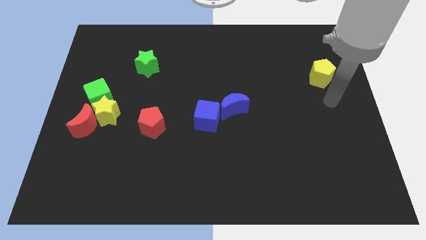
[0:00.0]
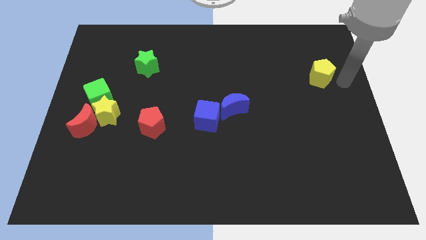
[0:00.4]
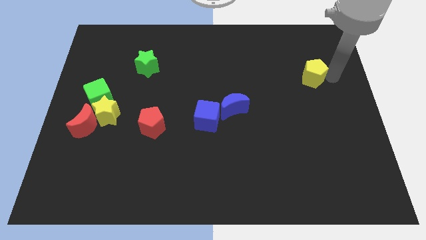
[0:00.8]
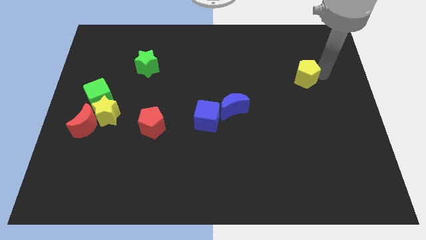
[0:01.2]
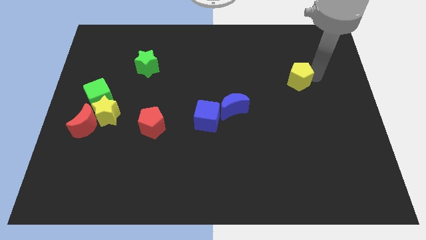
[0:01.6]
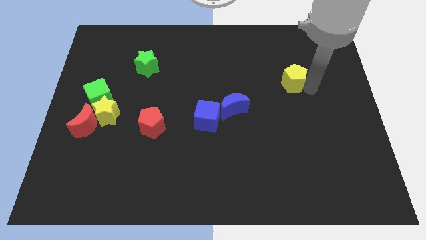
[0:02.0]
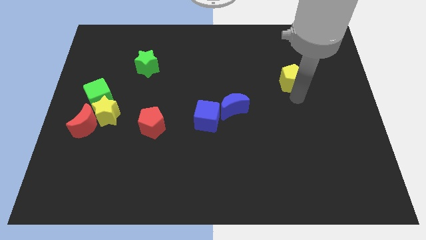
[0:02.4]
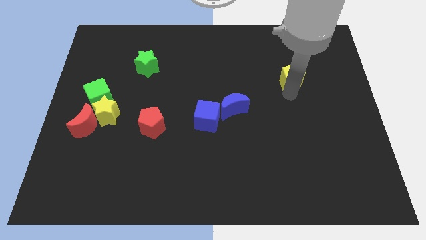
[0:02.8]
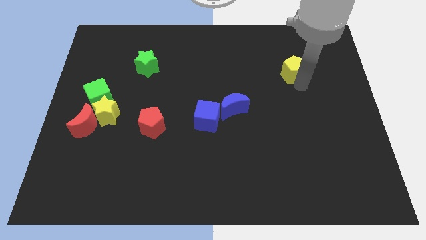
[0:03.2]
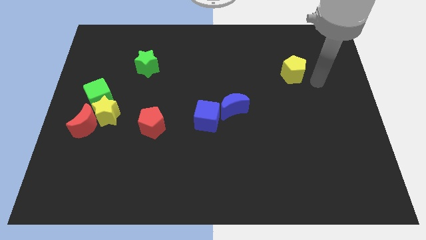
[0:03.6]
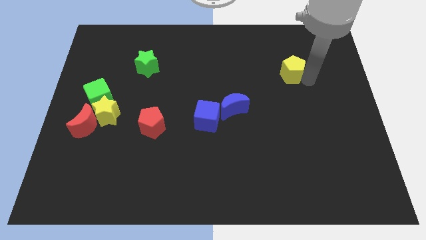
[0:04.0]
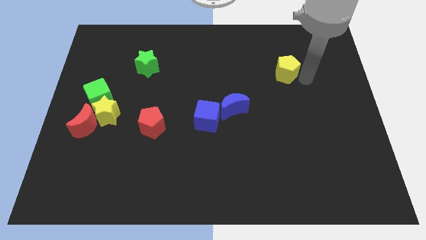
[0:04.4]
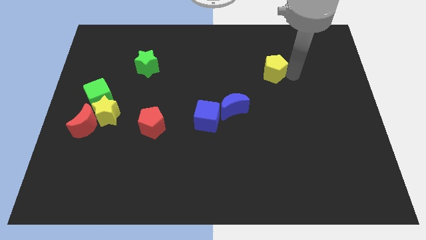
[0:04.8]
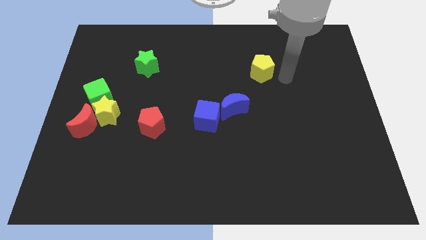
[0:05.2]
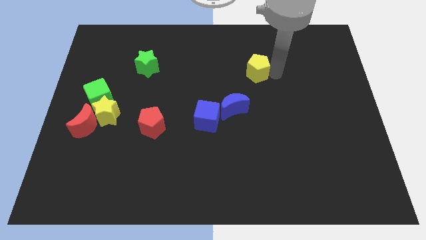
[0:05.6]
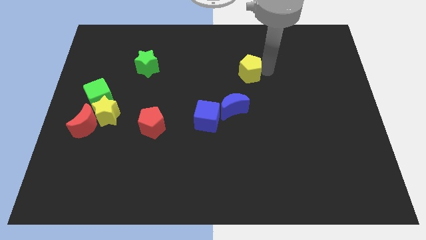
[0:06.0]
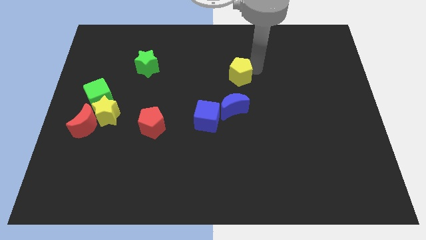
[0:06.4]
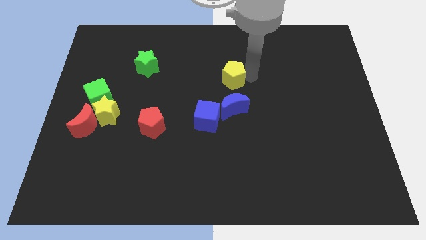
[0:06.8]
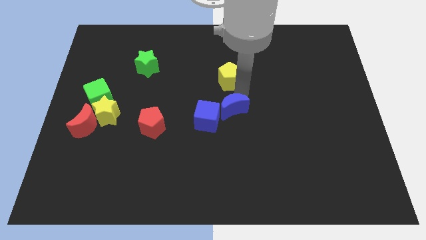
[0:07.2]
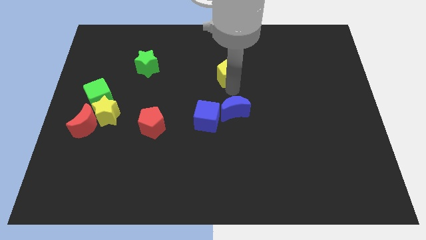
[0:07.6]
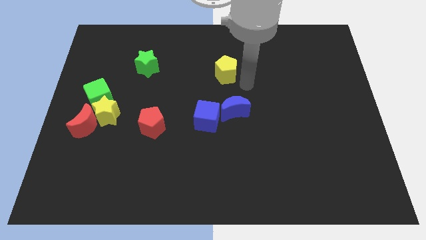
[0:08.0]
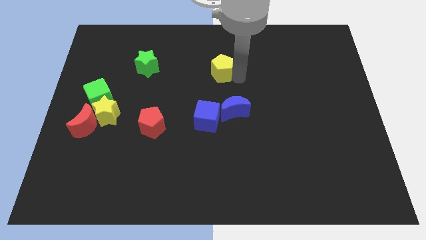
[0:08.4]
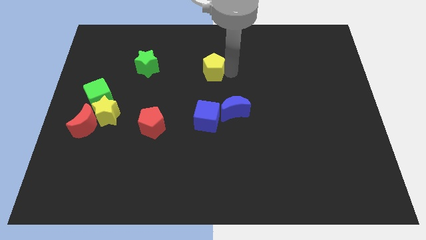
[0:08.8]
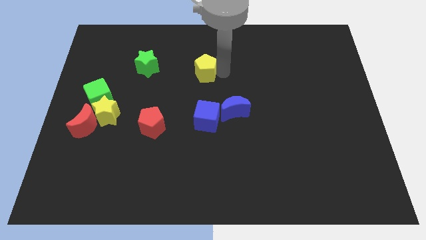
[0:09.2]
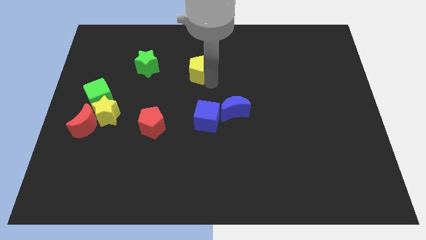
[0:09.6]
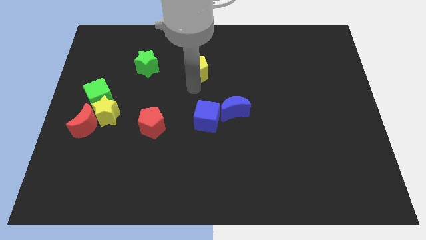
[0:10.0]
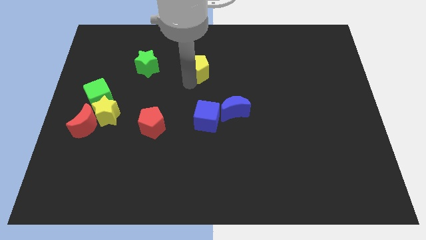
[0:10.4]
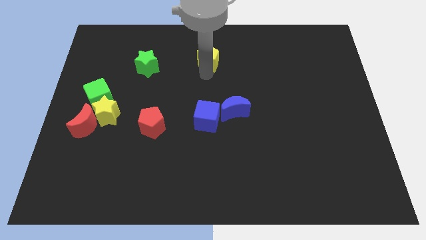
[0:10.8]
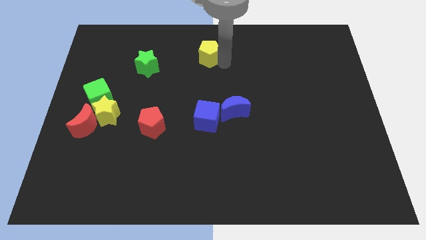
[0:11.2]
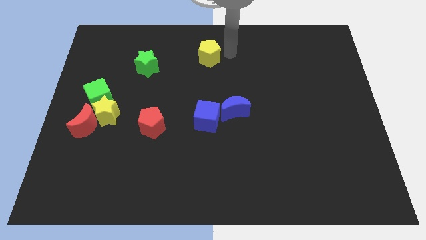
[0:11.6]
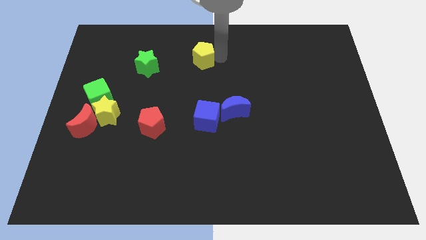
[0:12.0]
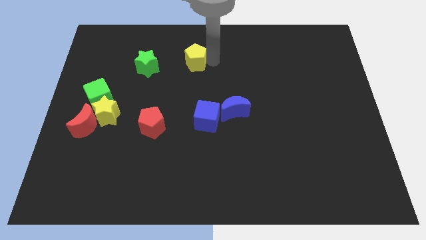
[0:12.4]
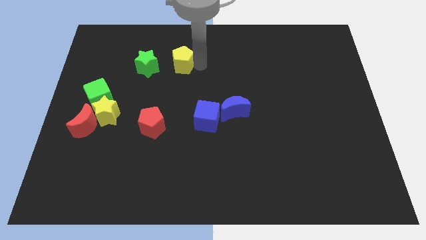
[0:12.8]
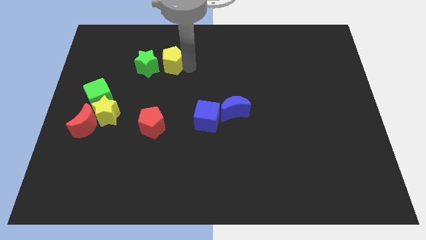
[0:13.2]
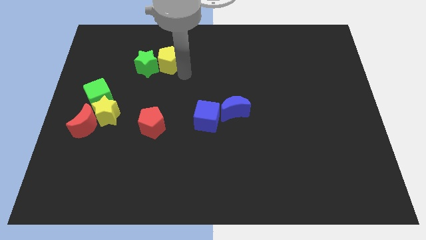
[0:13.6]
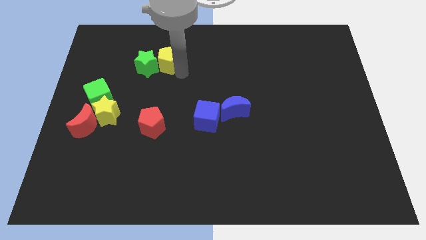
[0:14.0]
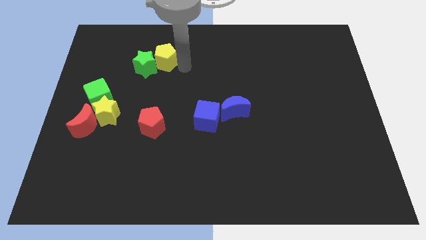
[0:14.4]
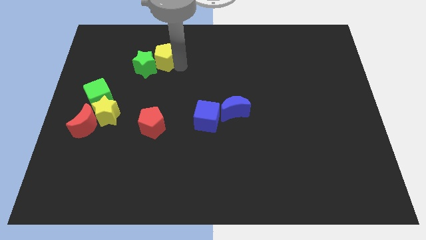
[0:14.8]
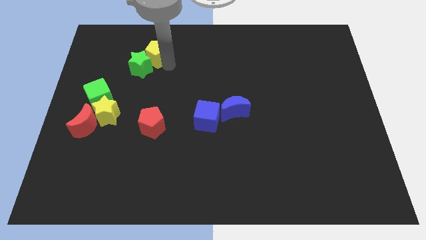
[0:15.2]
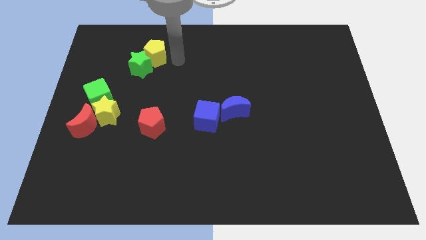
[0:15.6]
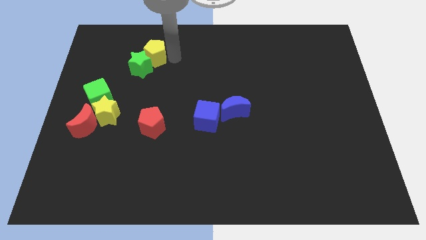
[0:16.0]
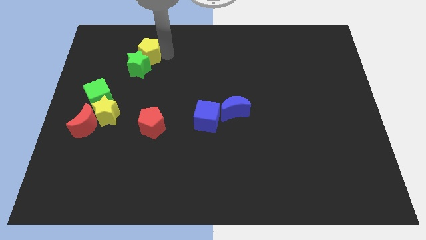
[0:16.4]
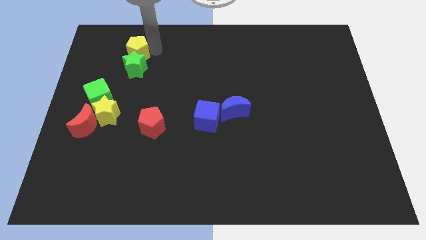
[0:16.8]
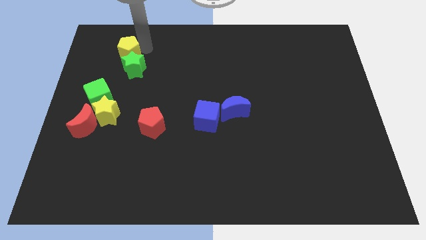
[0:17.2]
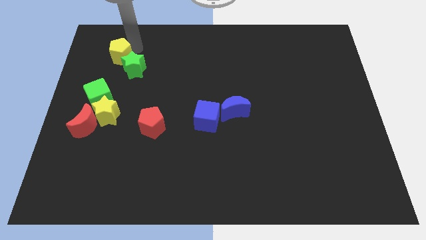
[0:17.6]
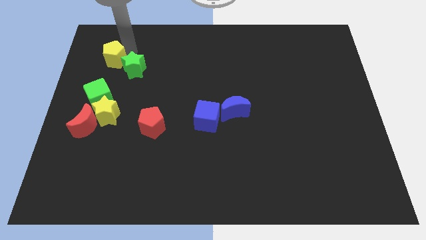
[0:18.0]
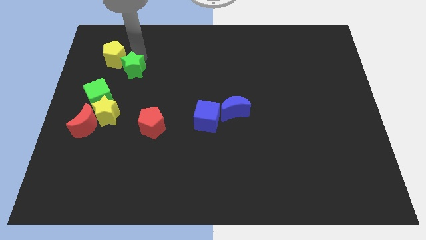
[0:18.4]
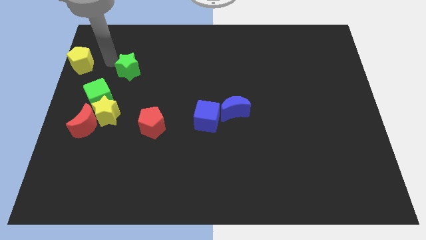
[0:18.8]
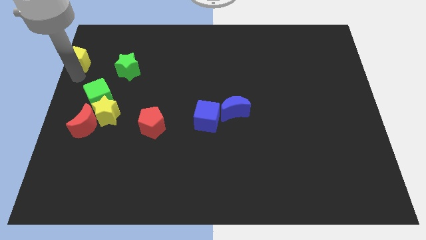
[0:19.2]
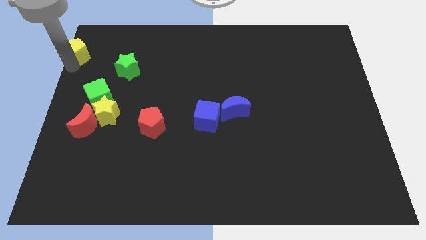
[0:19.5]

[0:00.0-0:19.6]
put the yellow pentagon to the upper left corner

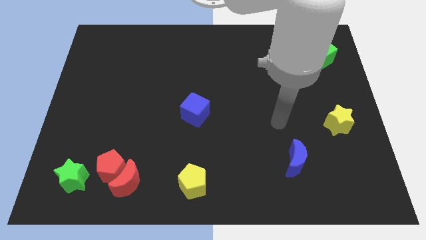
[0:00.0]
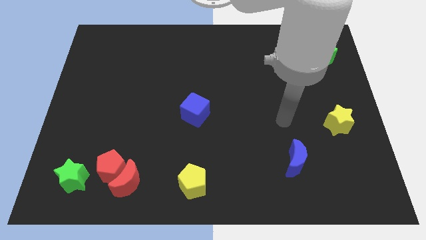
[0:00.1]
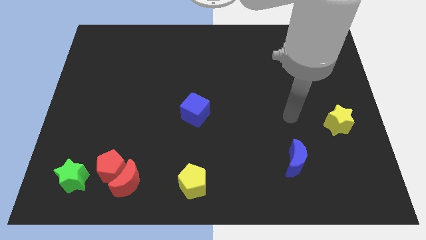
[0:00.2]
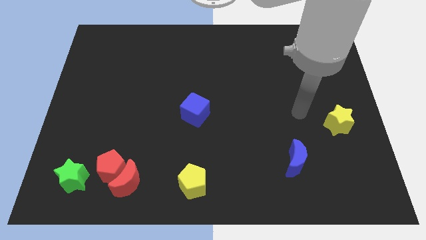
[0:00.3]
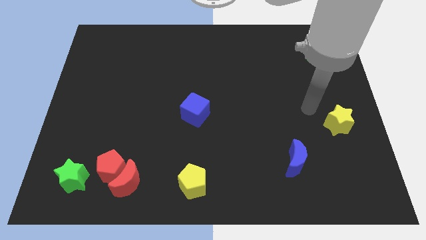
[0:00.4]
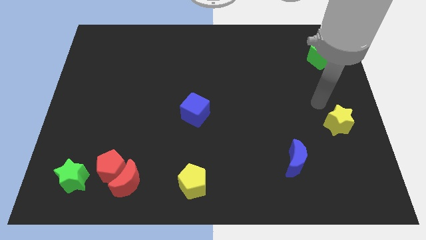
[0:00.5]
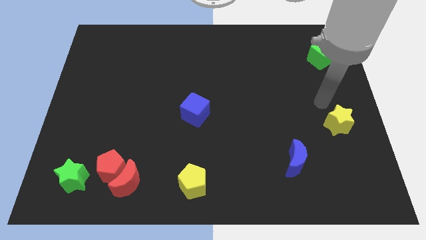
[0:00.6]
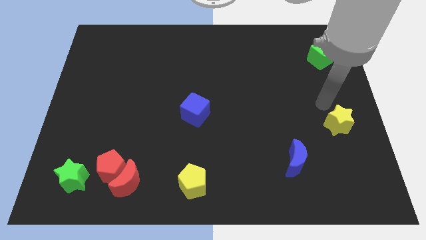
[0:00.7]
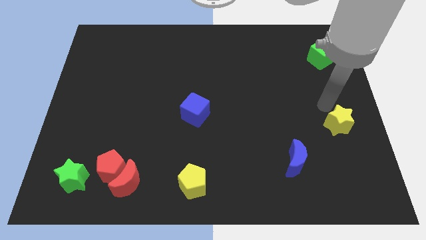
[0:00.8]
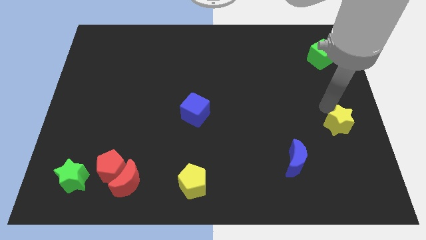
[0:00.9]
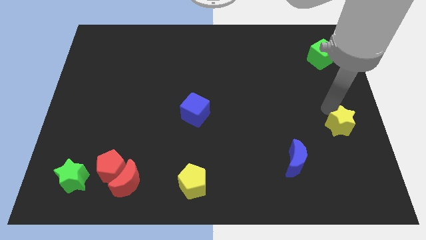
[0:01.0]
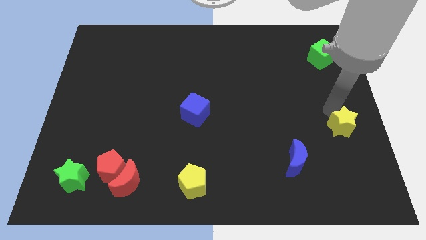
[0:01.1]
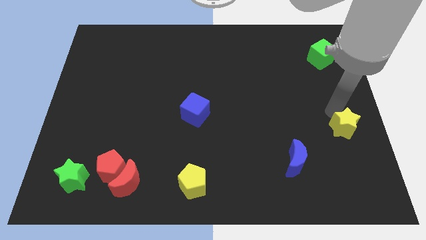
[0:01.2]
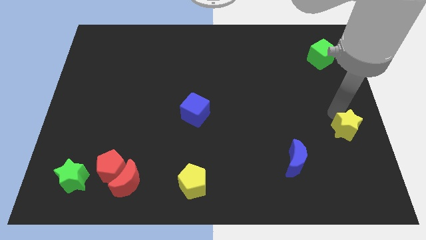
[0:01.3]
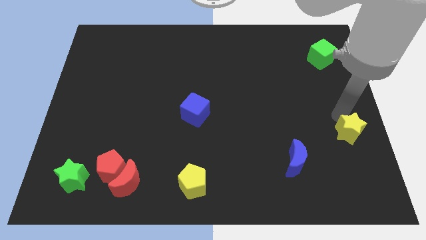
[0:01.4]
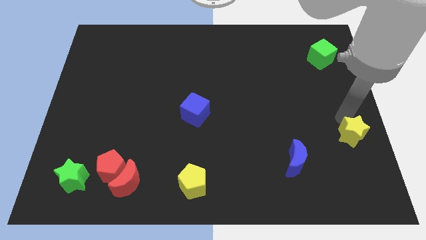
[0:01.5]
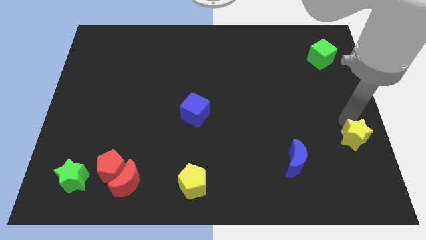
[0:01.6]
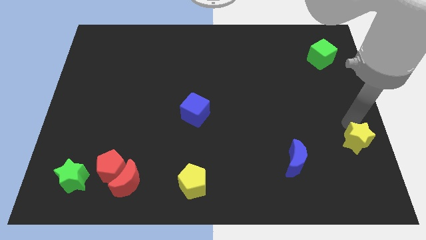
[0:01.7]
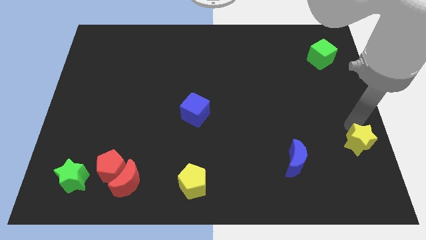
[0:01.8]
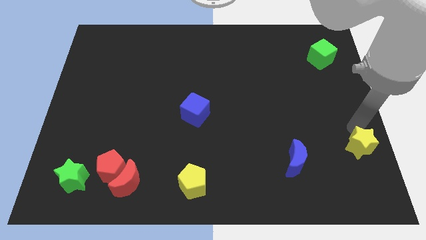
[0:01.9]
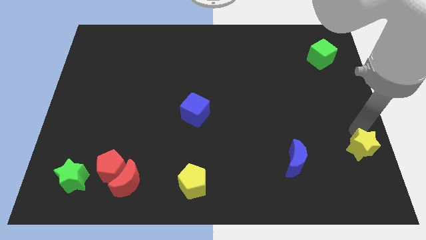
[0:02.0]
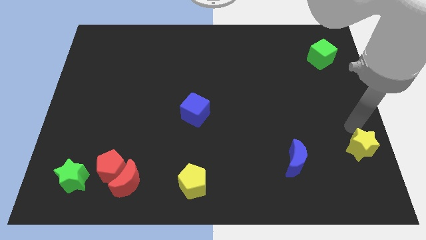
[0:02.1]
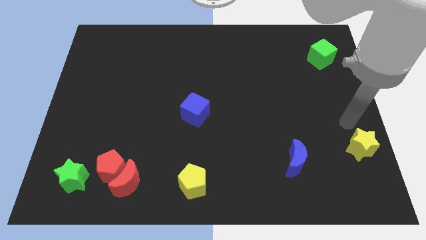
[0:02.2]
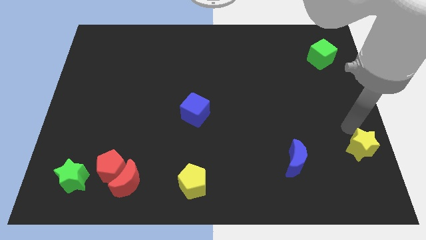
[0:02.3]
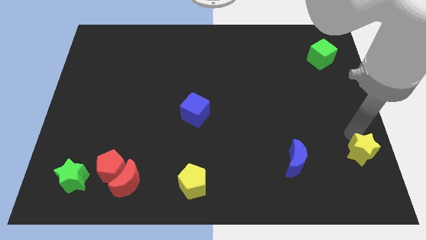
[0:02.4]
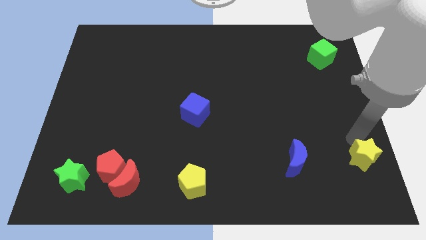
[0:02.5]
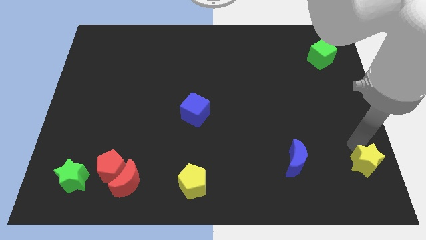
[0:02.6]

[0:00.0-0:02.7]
put the yellow star to the lower right corner
